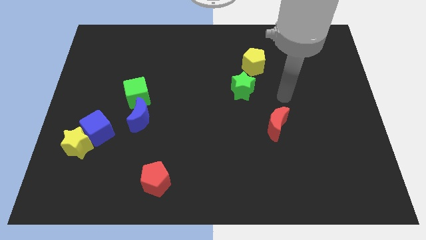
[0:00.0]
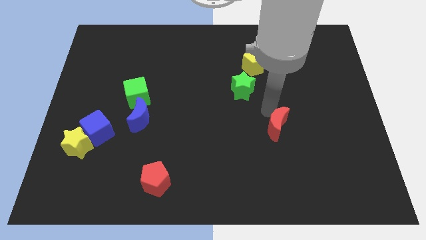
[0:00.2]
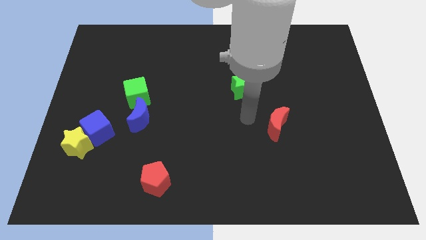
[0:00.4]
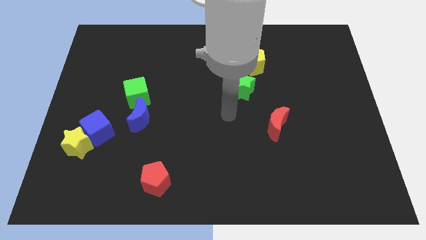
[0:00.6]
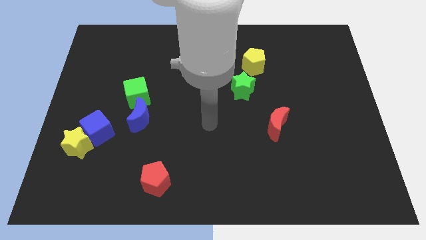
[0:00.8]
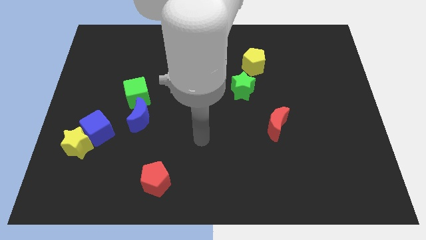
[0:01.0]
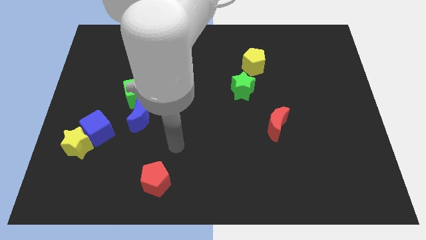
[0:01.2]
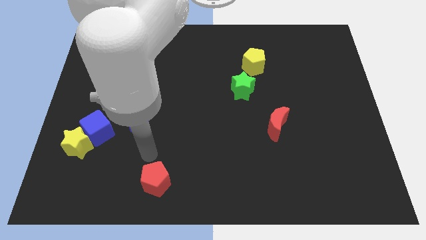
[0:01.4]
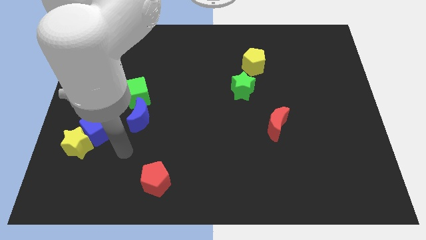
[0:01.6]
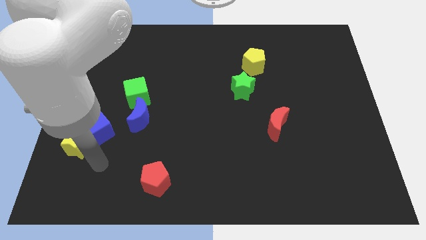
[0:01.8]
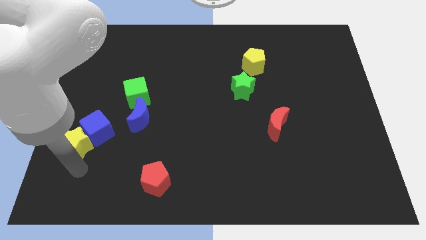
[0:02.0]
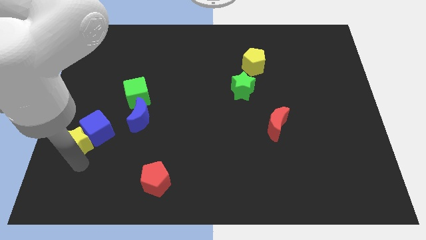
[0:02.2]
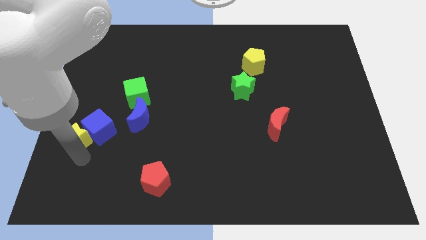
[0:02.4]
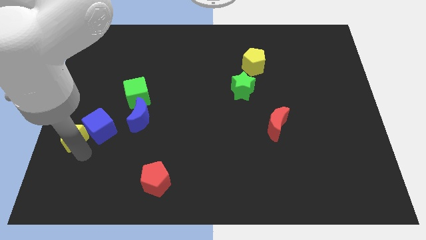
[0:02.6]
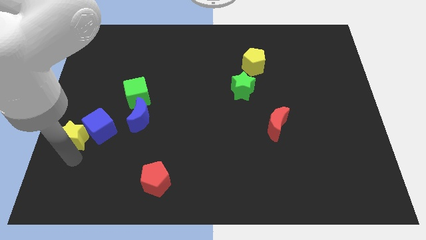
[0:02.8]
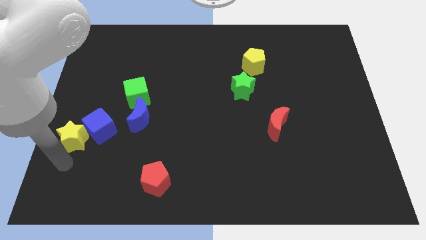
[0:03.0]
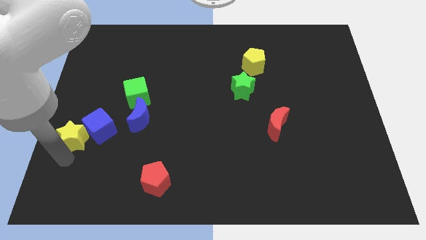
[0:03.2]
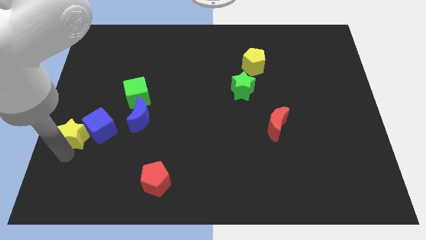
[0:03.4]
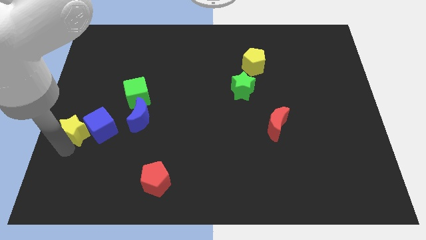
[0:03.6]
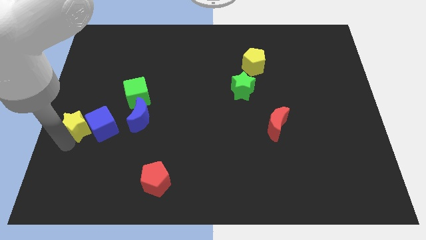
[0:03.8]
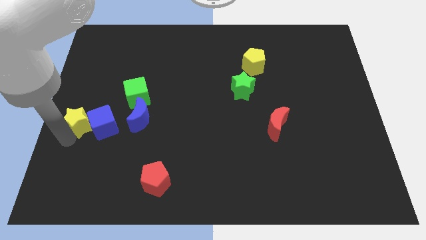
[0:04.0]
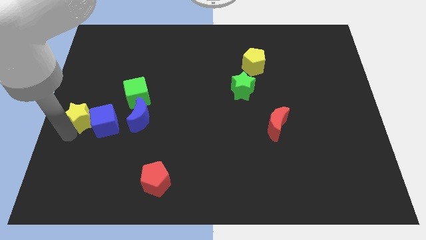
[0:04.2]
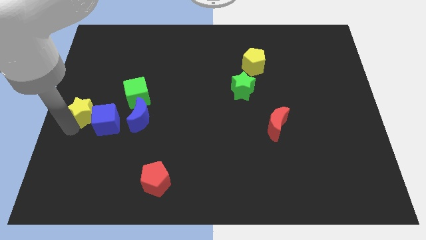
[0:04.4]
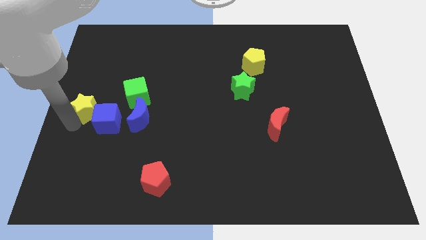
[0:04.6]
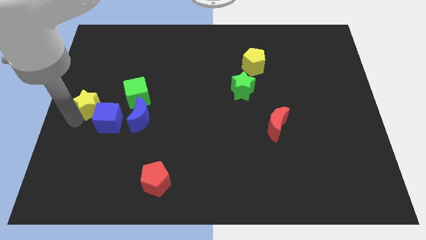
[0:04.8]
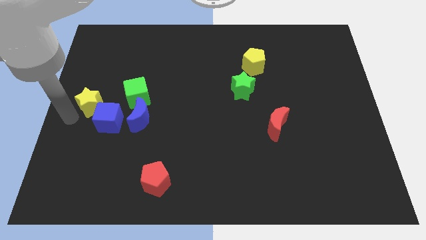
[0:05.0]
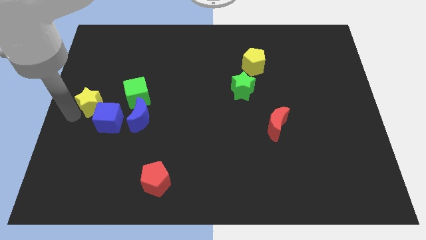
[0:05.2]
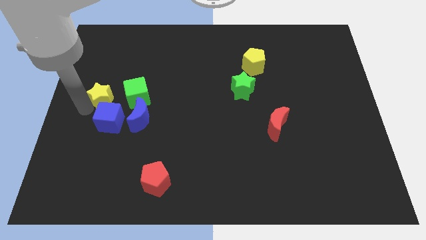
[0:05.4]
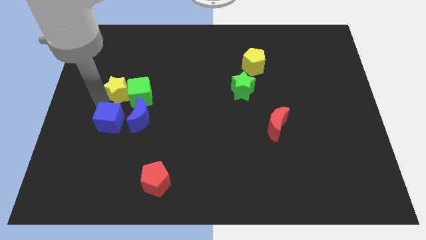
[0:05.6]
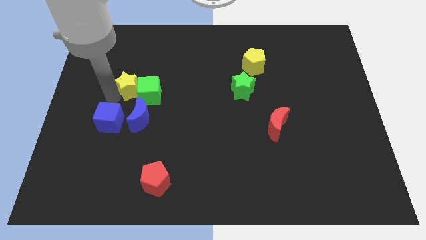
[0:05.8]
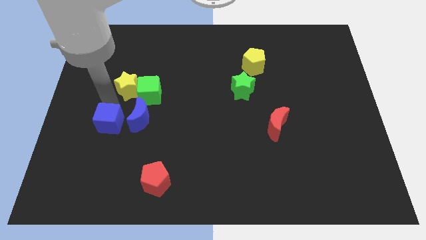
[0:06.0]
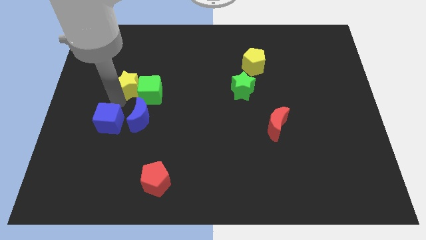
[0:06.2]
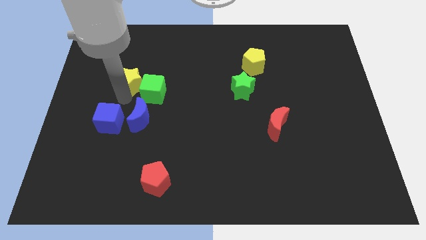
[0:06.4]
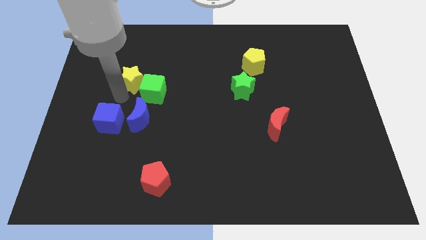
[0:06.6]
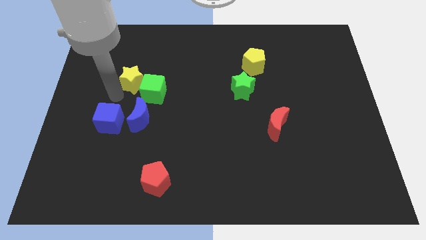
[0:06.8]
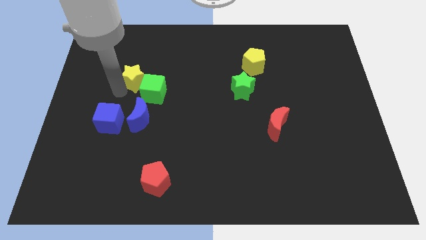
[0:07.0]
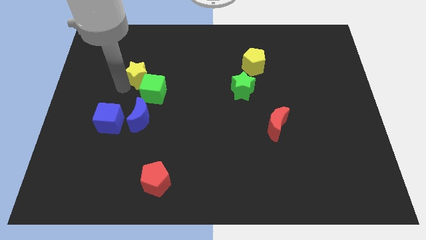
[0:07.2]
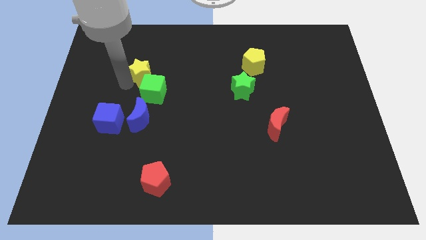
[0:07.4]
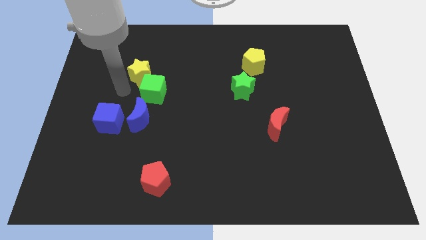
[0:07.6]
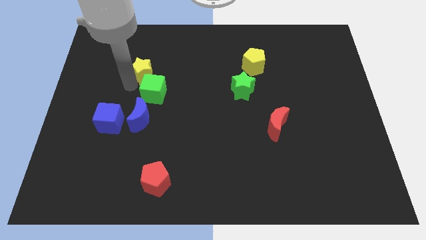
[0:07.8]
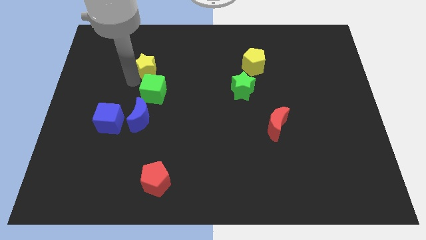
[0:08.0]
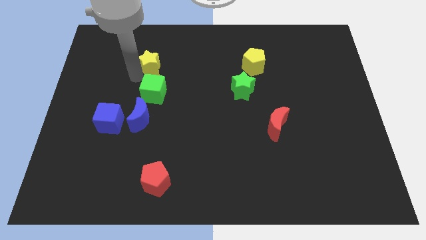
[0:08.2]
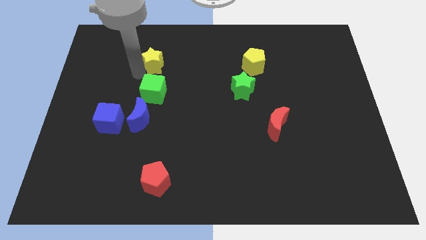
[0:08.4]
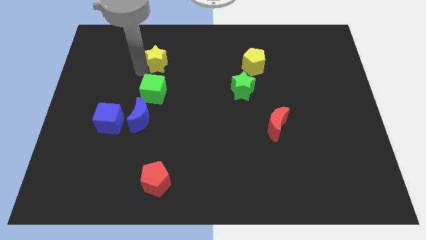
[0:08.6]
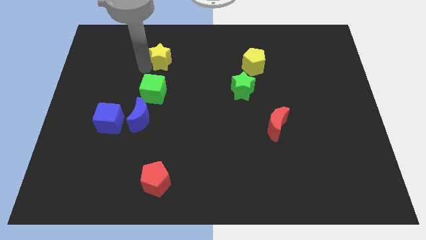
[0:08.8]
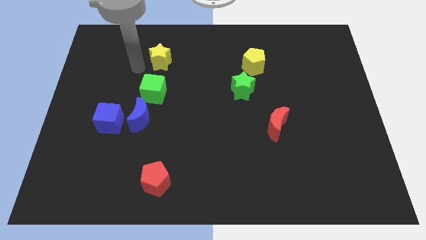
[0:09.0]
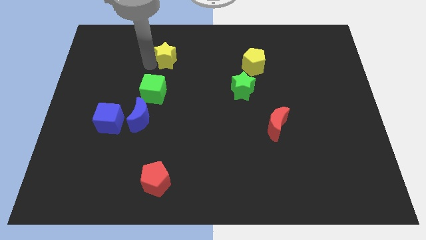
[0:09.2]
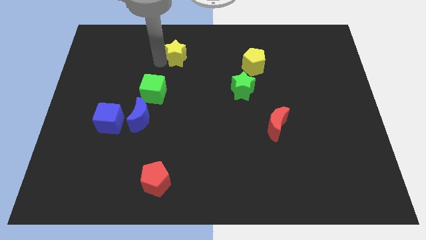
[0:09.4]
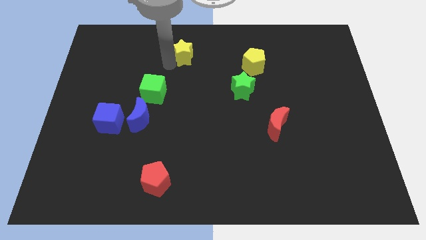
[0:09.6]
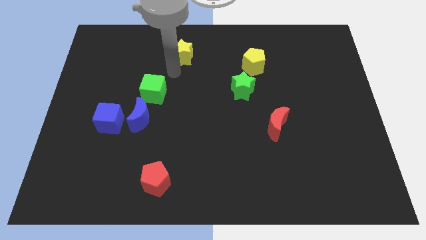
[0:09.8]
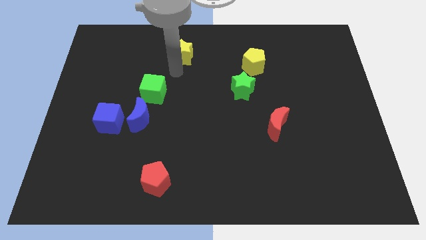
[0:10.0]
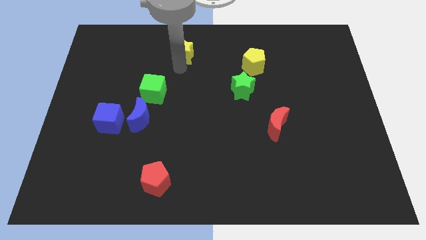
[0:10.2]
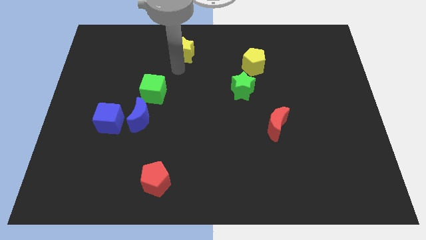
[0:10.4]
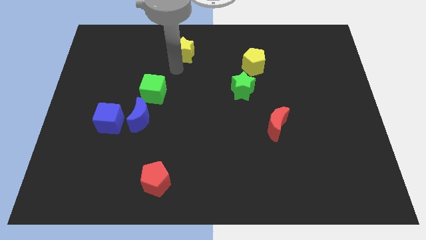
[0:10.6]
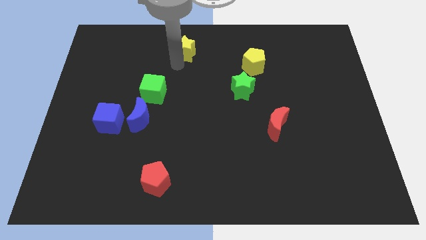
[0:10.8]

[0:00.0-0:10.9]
slide the yellow star to the towards your base

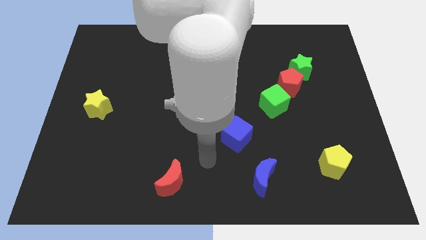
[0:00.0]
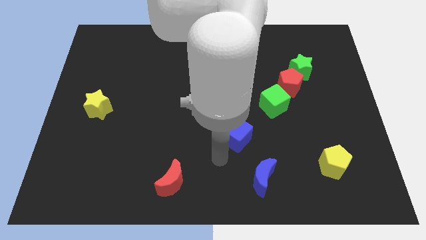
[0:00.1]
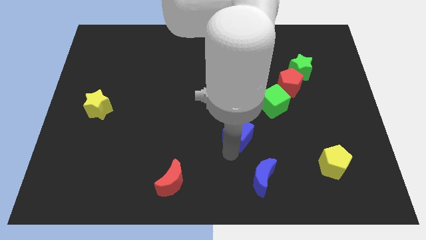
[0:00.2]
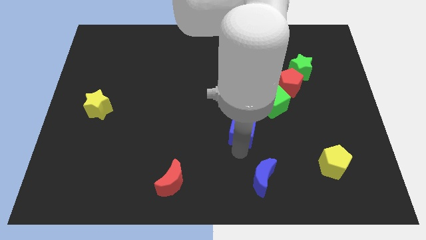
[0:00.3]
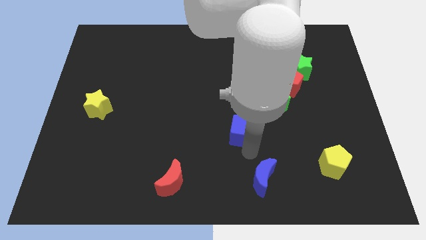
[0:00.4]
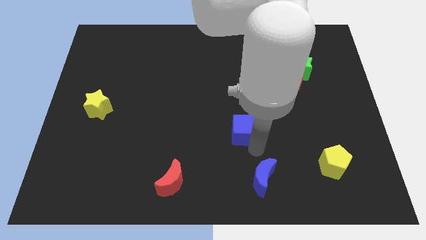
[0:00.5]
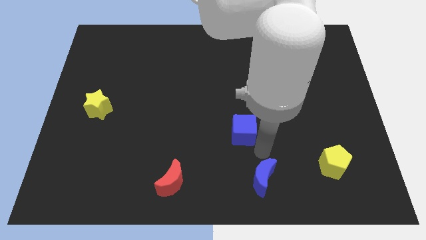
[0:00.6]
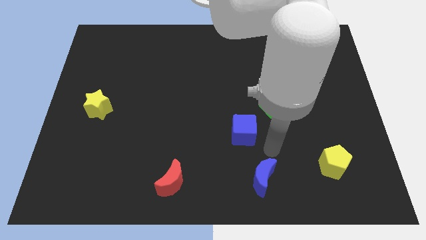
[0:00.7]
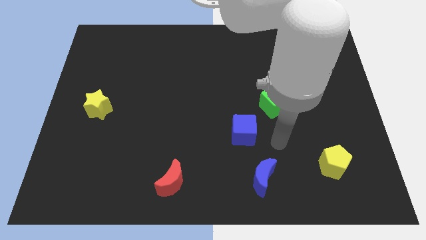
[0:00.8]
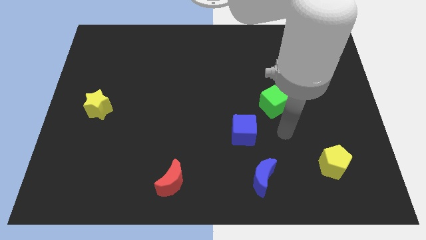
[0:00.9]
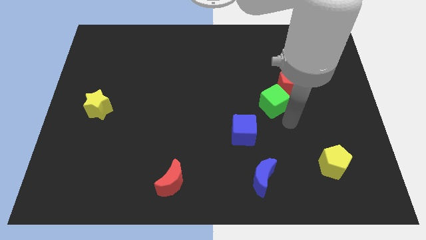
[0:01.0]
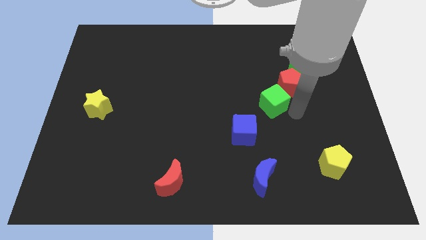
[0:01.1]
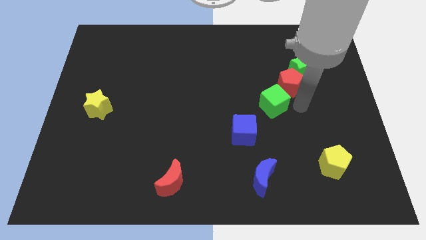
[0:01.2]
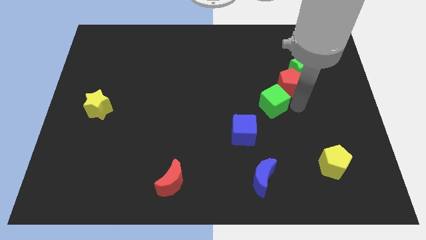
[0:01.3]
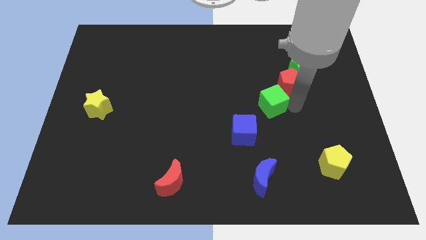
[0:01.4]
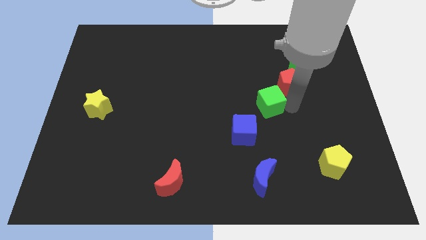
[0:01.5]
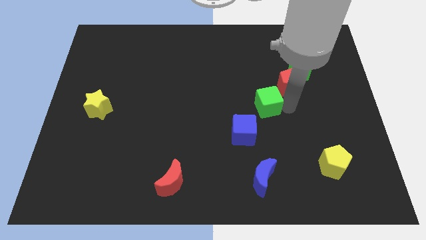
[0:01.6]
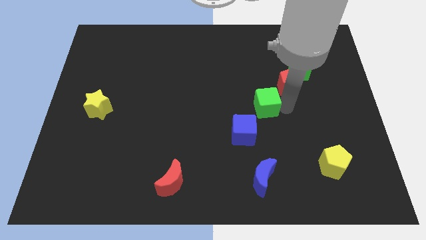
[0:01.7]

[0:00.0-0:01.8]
move the green cube to the center
